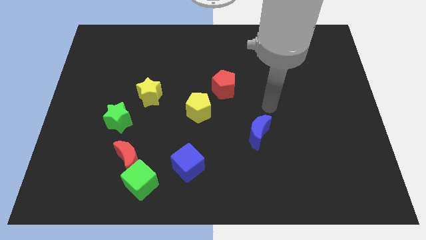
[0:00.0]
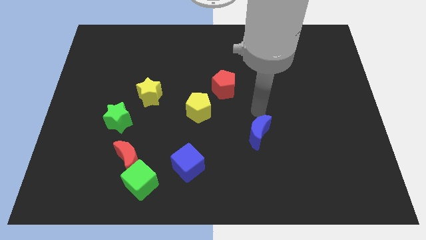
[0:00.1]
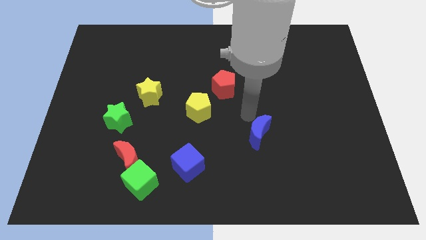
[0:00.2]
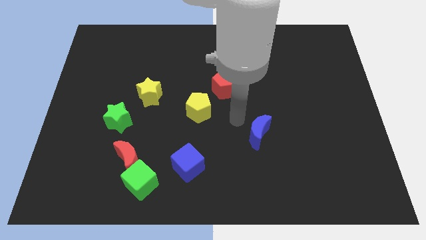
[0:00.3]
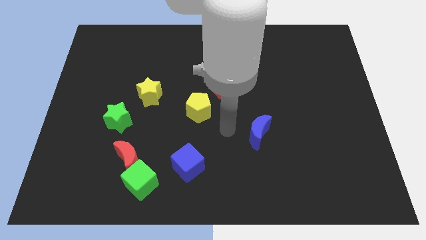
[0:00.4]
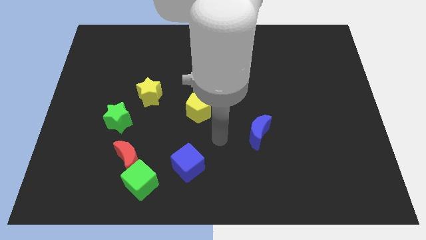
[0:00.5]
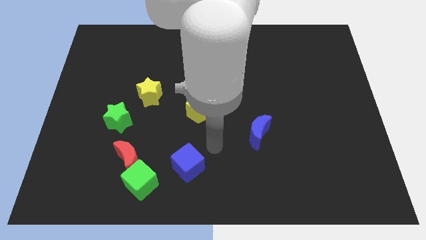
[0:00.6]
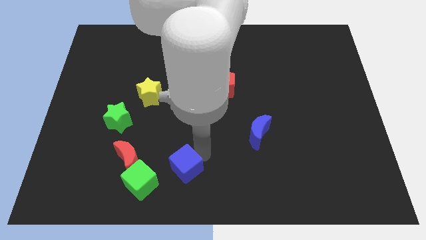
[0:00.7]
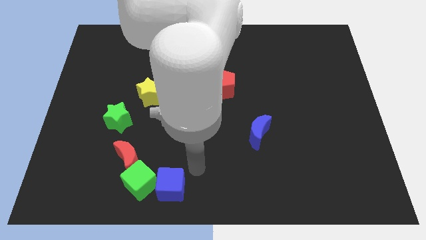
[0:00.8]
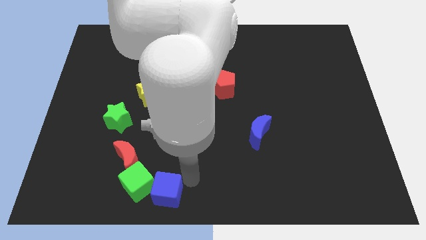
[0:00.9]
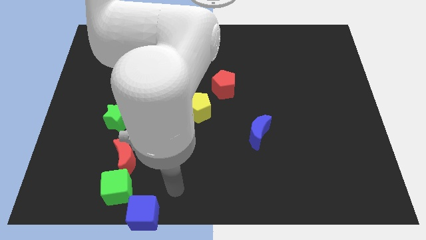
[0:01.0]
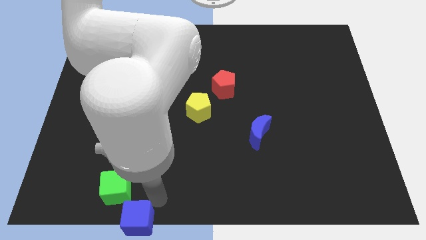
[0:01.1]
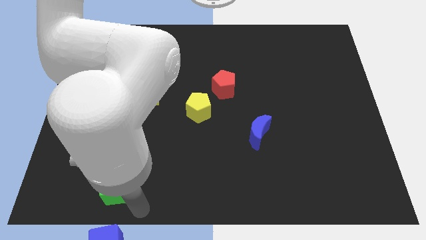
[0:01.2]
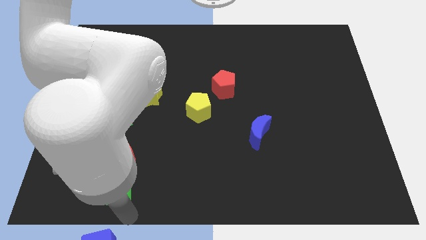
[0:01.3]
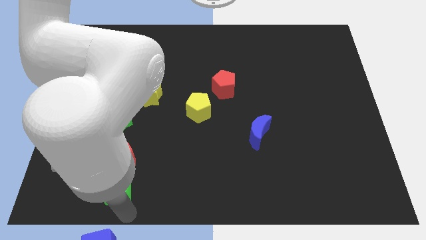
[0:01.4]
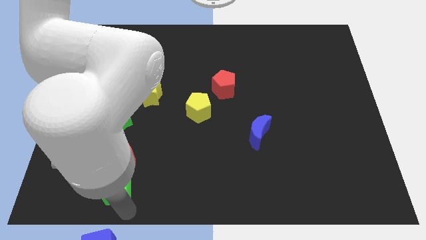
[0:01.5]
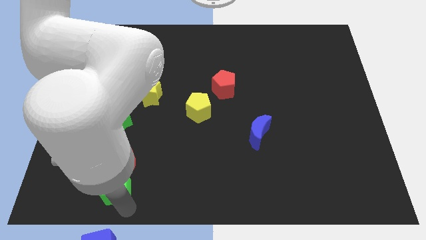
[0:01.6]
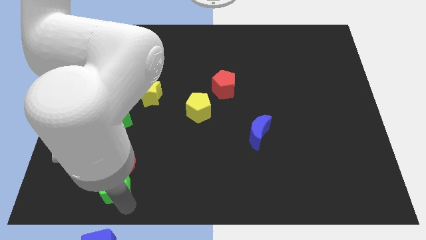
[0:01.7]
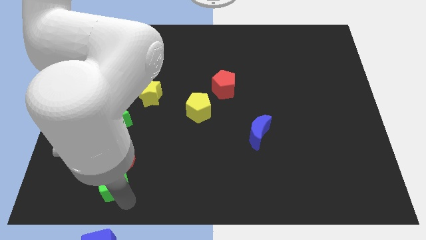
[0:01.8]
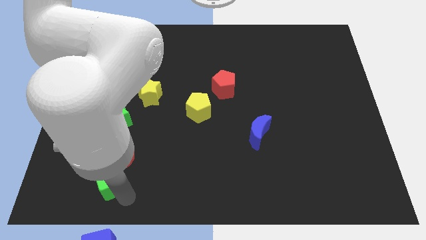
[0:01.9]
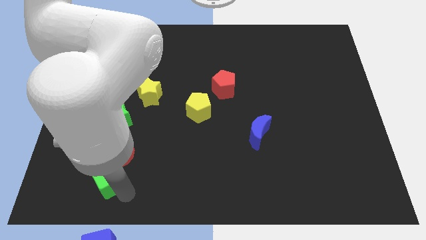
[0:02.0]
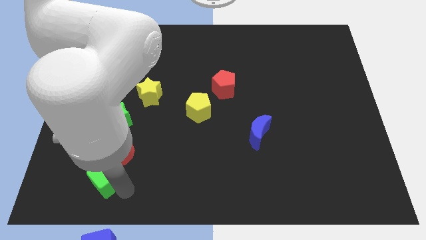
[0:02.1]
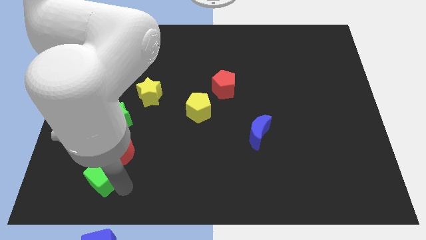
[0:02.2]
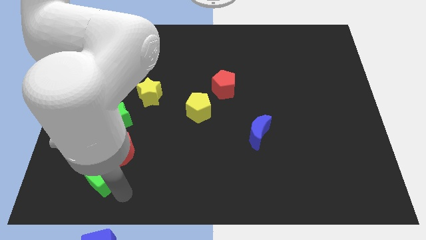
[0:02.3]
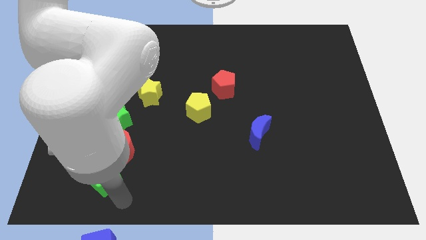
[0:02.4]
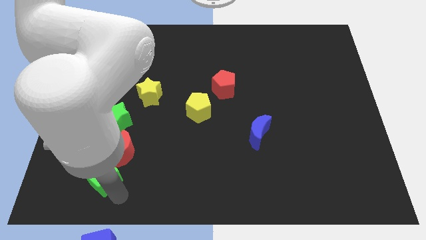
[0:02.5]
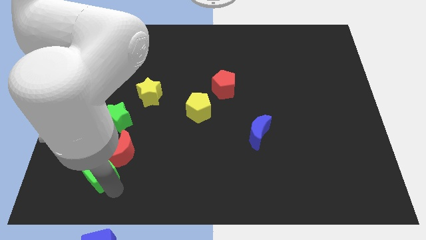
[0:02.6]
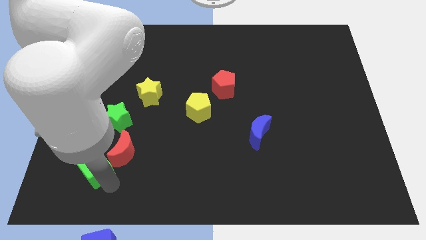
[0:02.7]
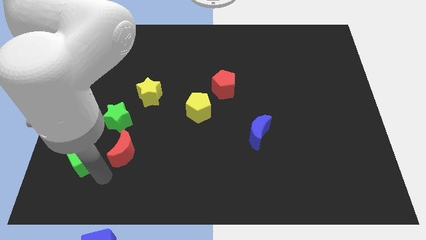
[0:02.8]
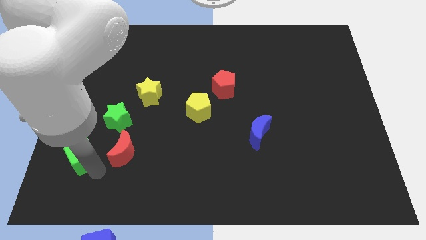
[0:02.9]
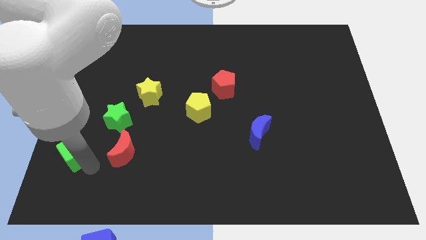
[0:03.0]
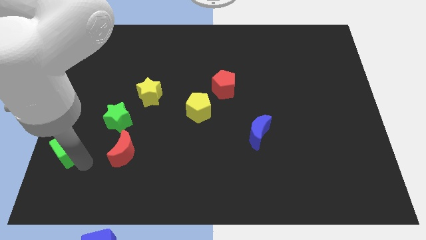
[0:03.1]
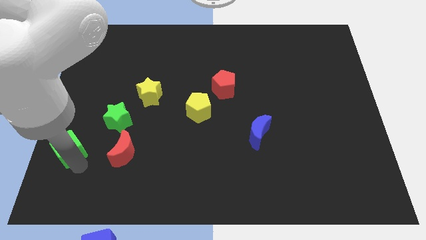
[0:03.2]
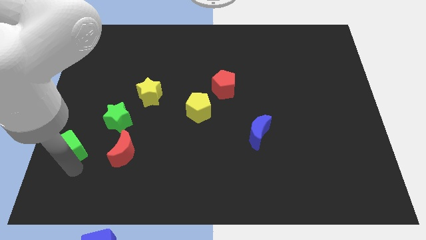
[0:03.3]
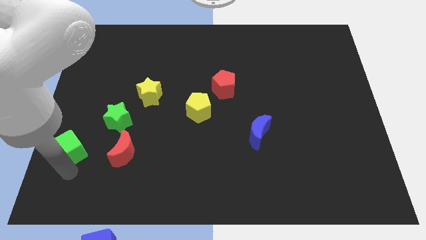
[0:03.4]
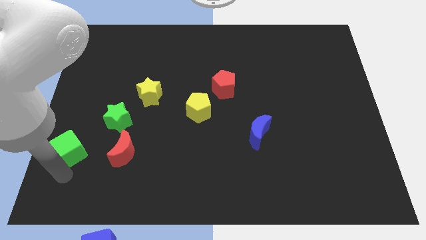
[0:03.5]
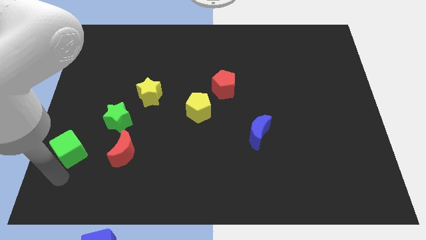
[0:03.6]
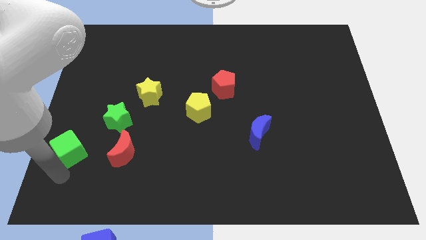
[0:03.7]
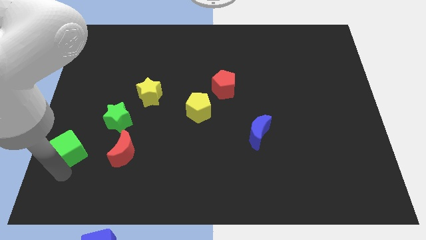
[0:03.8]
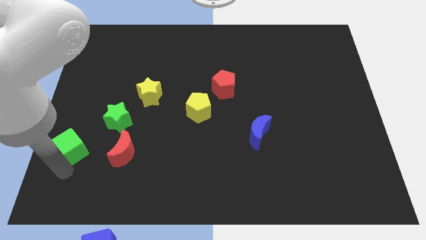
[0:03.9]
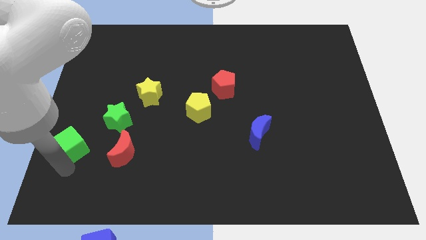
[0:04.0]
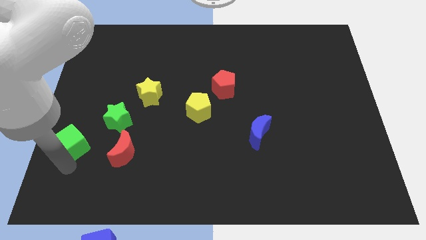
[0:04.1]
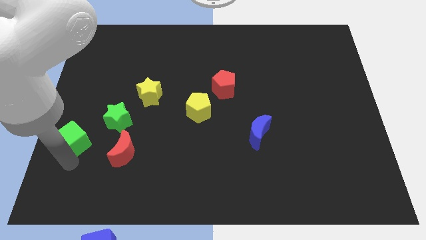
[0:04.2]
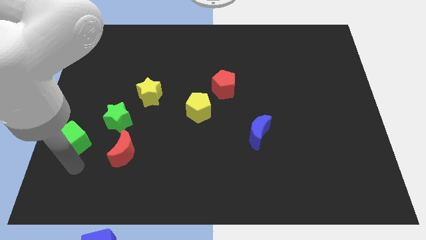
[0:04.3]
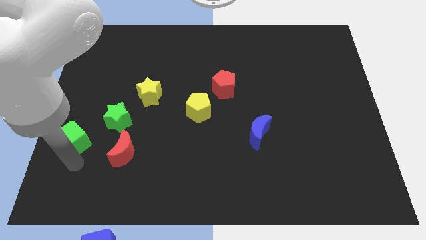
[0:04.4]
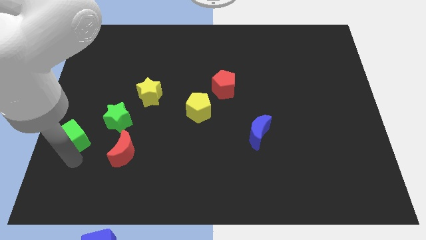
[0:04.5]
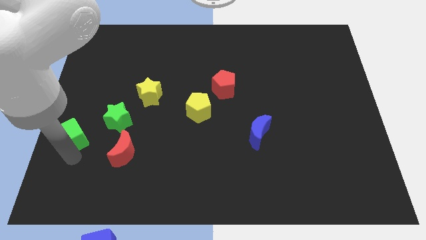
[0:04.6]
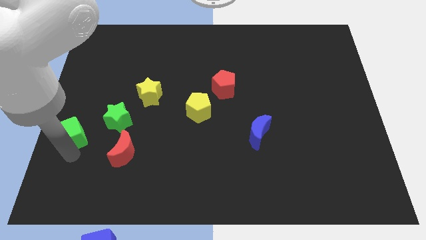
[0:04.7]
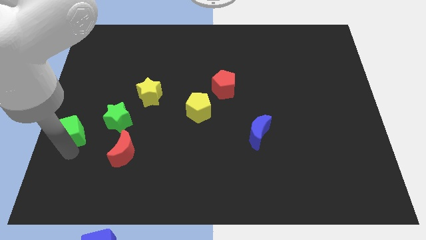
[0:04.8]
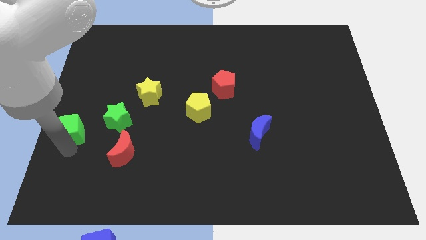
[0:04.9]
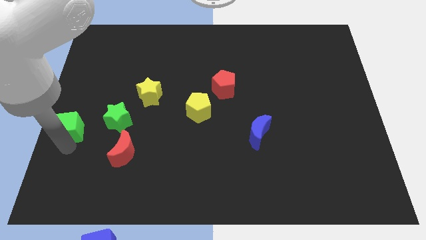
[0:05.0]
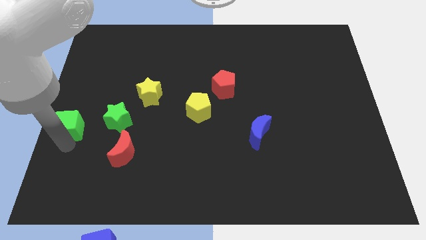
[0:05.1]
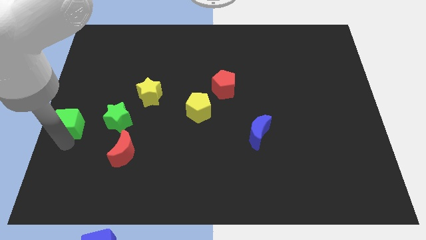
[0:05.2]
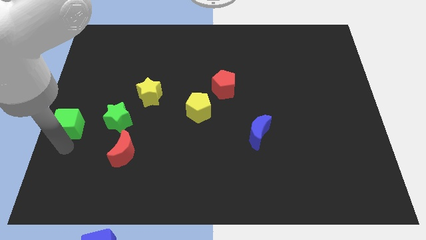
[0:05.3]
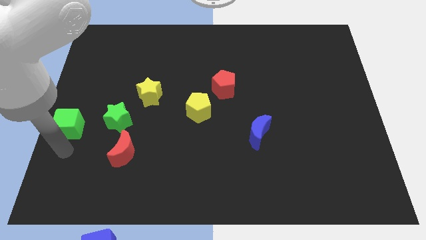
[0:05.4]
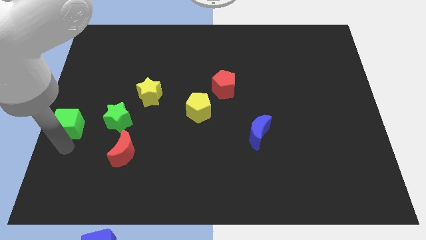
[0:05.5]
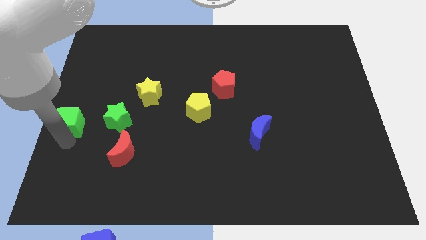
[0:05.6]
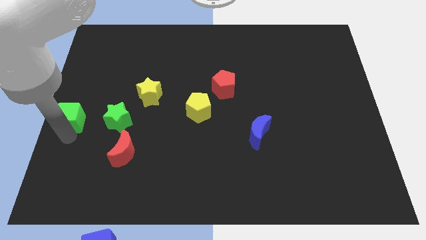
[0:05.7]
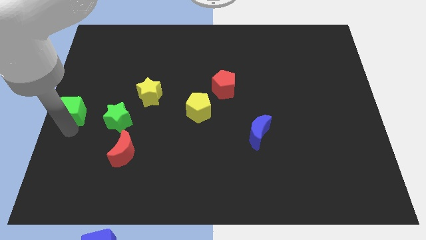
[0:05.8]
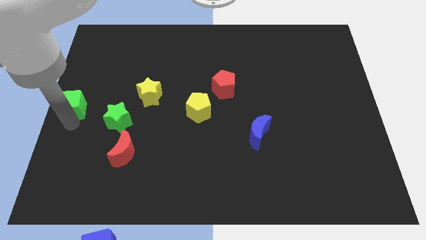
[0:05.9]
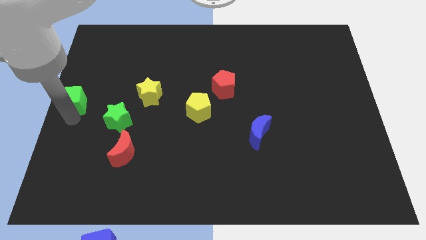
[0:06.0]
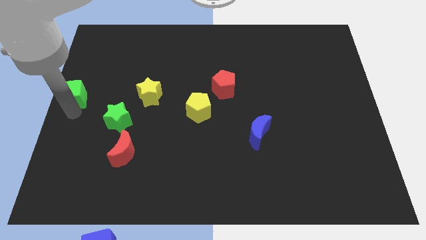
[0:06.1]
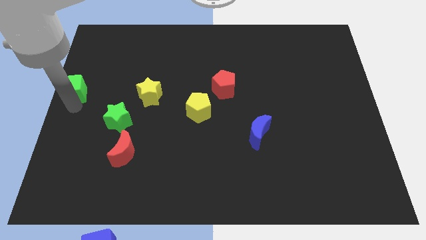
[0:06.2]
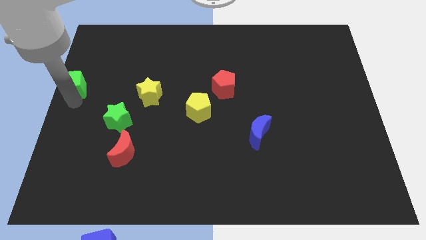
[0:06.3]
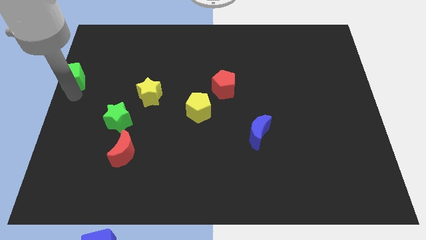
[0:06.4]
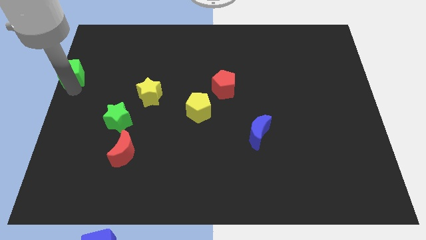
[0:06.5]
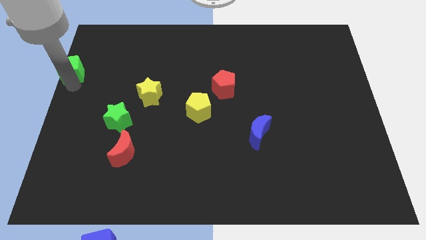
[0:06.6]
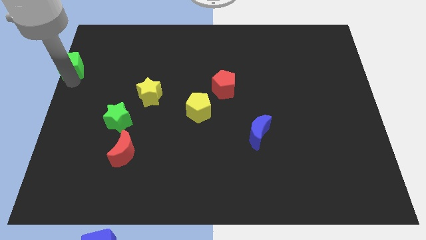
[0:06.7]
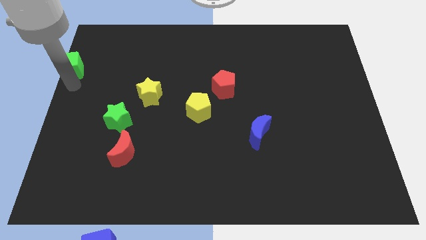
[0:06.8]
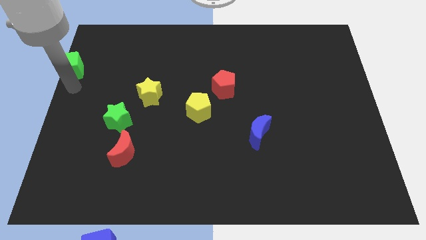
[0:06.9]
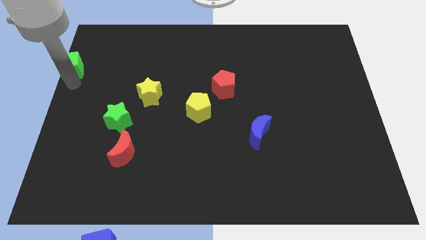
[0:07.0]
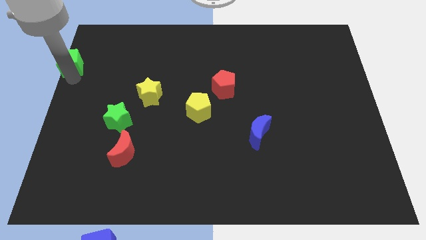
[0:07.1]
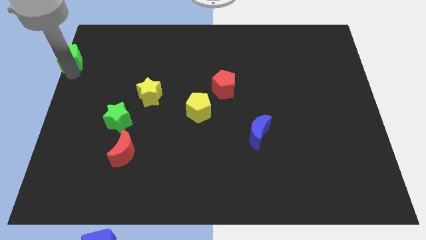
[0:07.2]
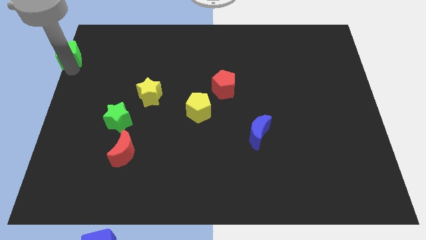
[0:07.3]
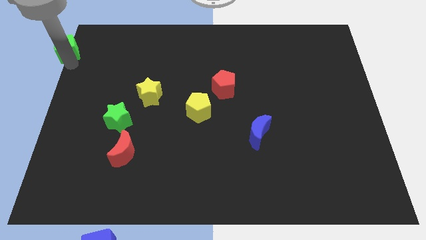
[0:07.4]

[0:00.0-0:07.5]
slide the green cube to the top left corner

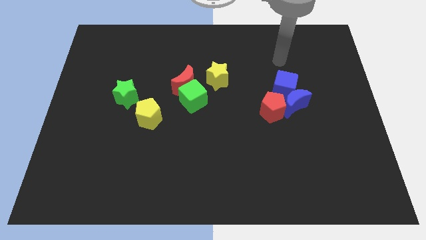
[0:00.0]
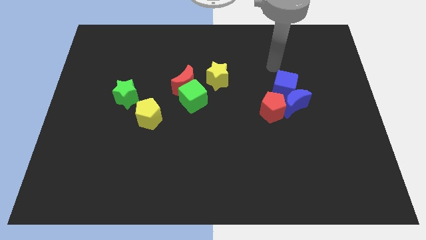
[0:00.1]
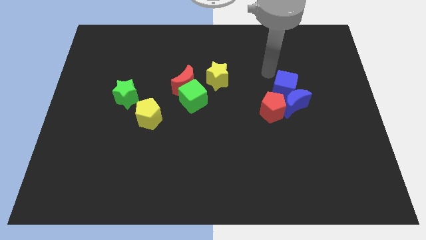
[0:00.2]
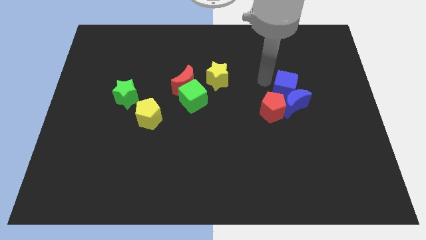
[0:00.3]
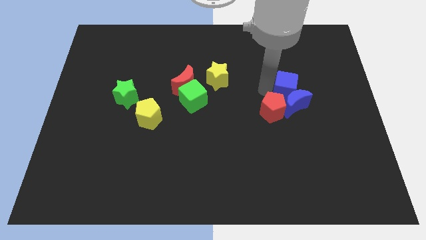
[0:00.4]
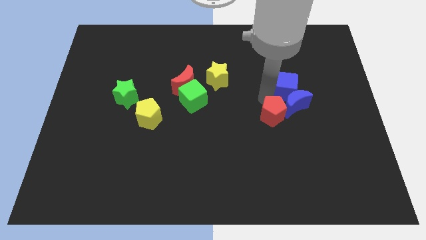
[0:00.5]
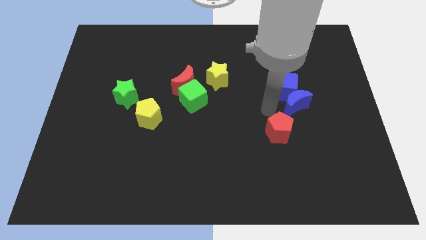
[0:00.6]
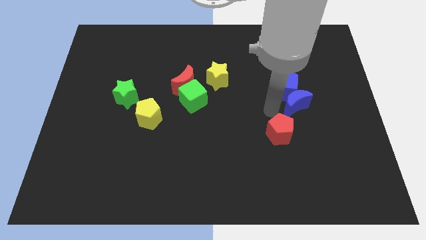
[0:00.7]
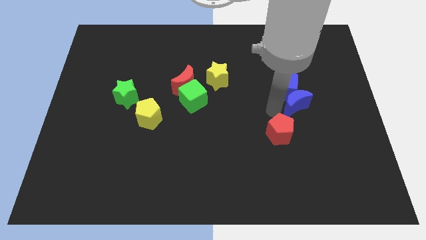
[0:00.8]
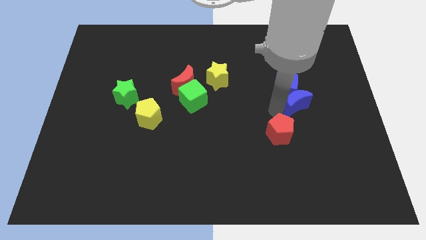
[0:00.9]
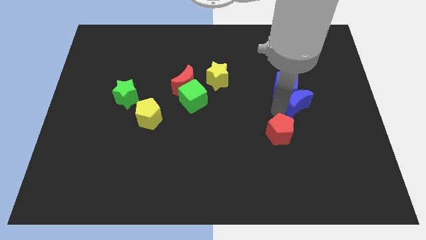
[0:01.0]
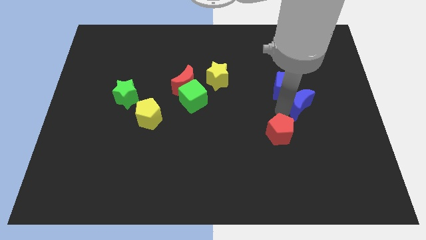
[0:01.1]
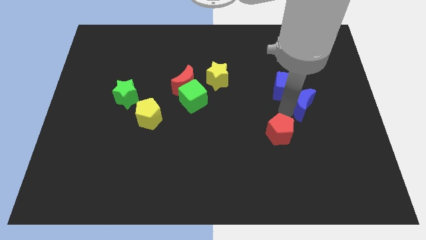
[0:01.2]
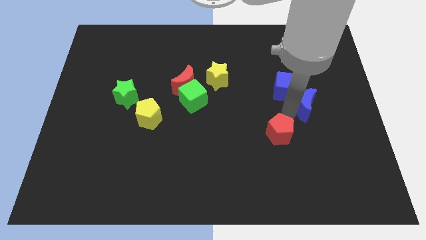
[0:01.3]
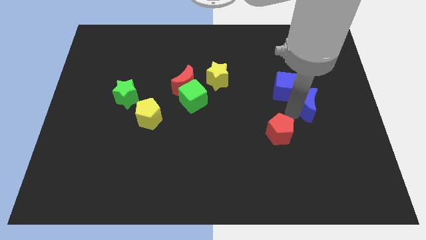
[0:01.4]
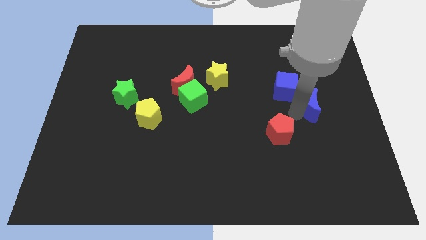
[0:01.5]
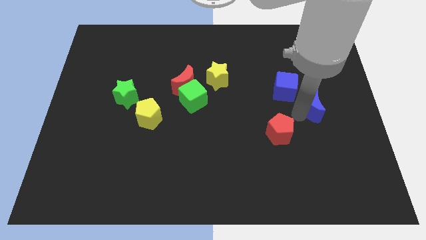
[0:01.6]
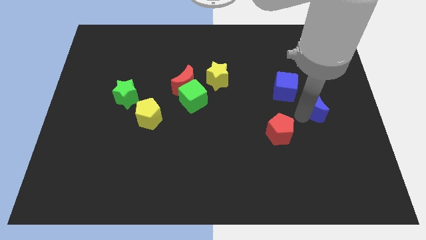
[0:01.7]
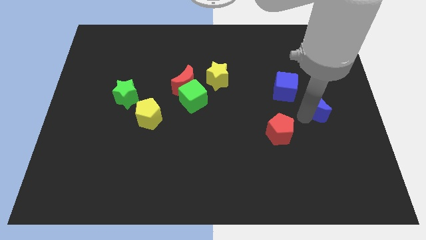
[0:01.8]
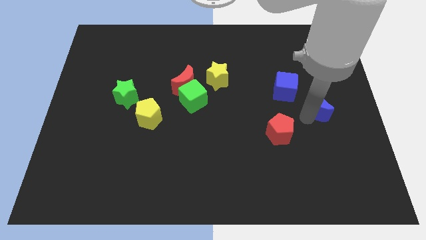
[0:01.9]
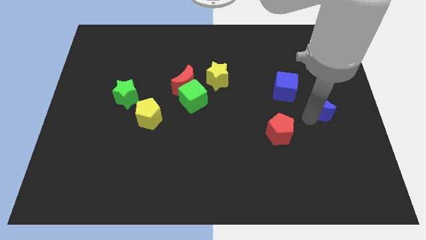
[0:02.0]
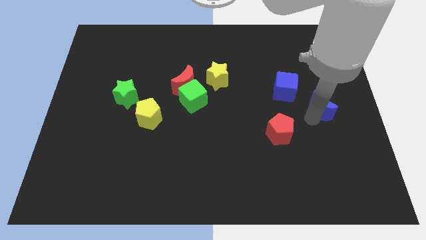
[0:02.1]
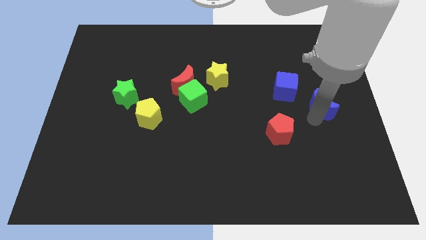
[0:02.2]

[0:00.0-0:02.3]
put the blue moon to the right side
